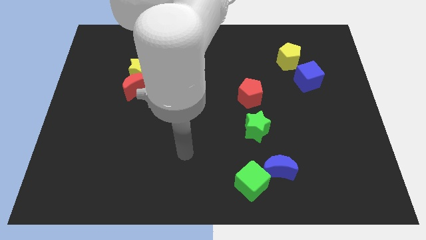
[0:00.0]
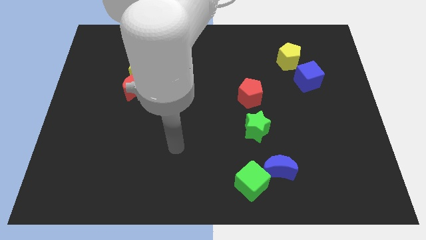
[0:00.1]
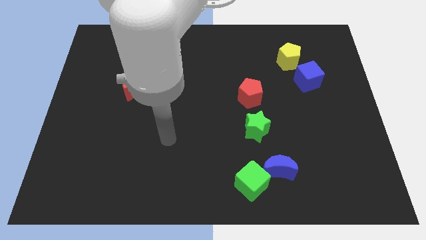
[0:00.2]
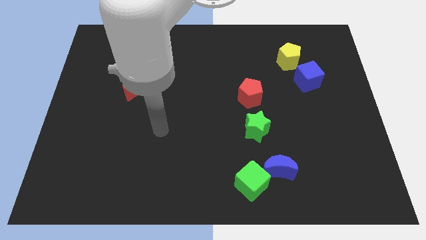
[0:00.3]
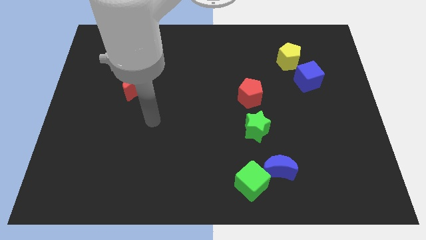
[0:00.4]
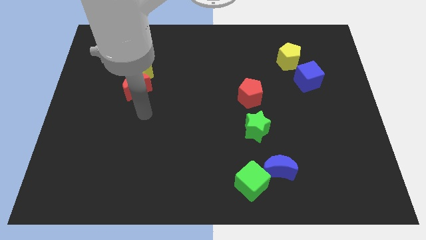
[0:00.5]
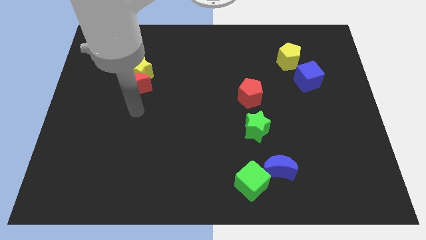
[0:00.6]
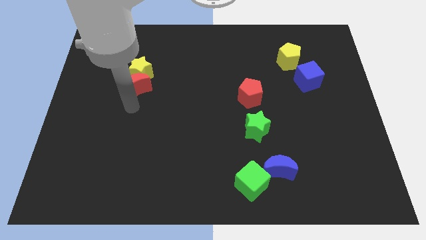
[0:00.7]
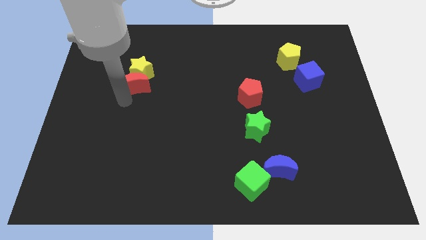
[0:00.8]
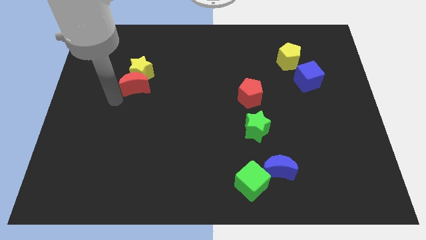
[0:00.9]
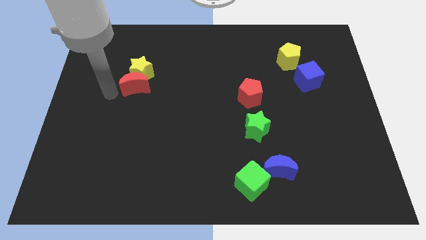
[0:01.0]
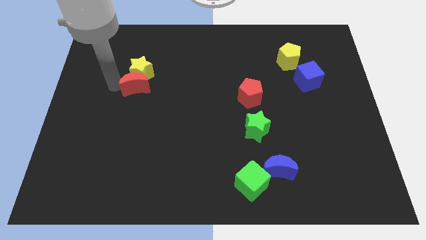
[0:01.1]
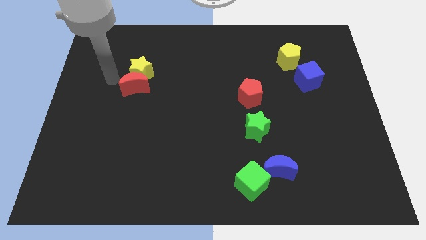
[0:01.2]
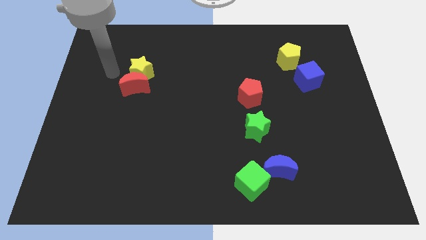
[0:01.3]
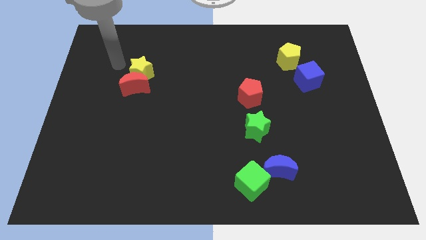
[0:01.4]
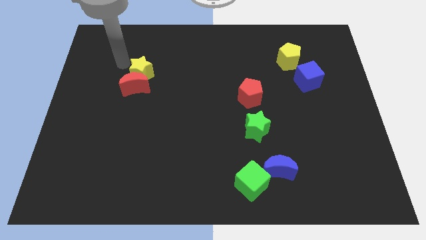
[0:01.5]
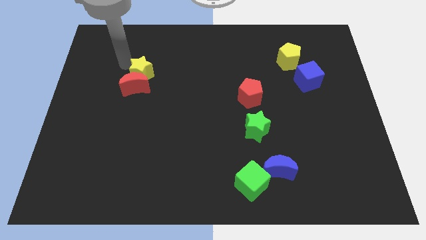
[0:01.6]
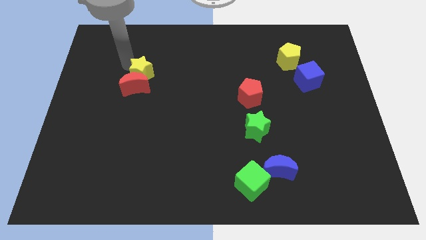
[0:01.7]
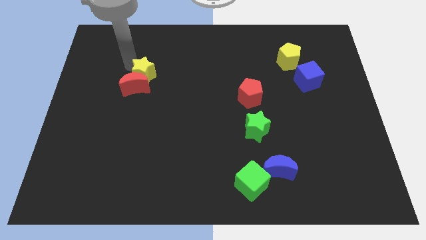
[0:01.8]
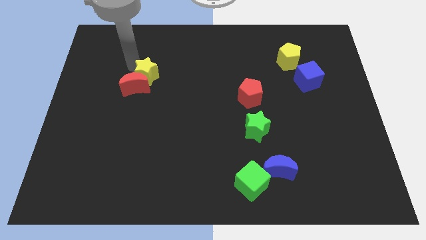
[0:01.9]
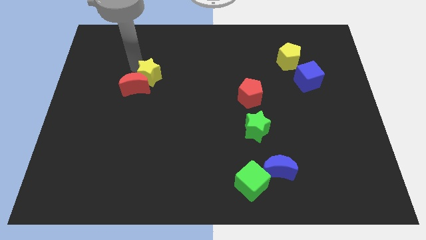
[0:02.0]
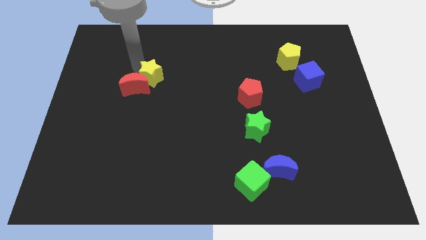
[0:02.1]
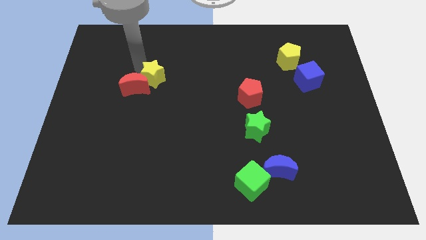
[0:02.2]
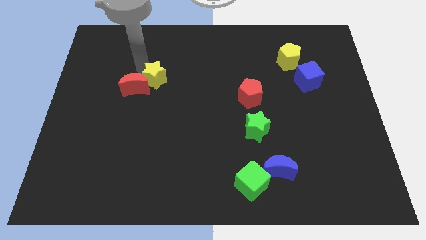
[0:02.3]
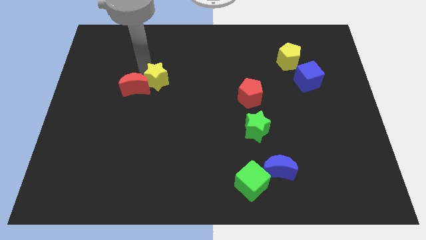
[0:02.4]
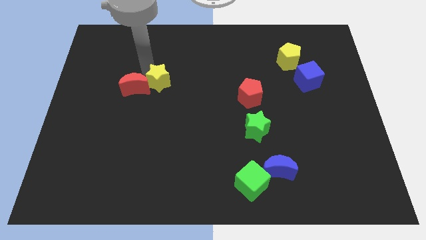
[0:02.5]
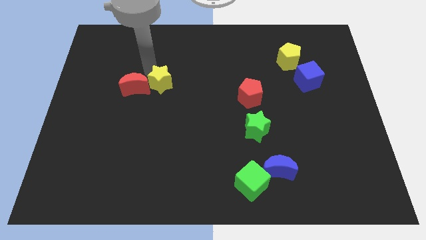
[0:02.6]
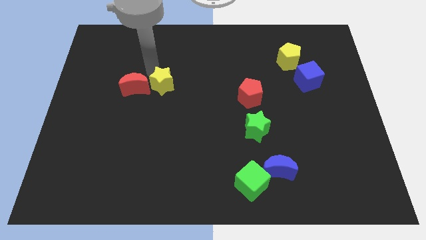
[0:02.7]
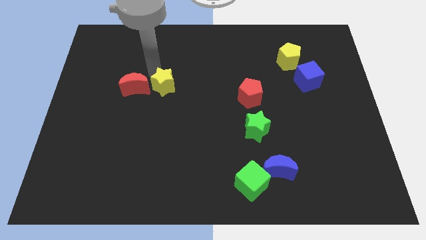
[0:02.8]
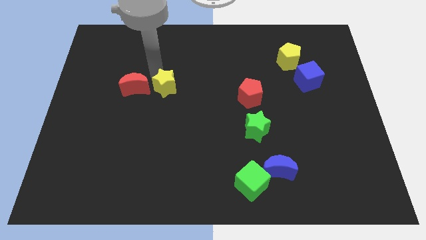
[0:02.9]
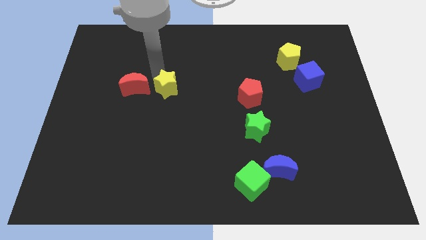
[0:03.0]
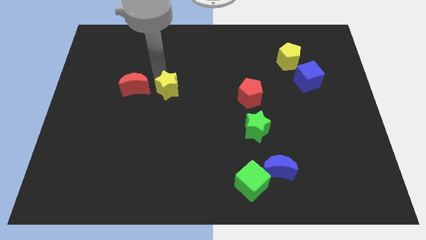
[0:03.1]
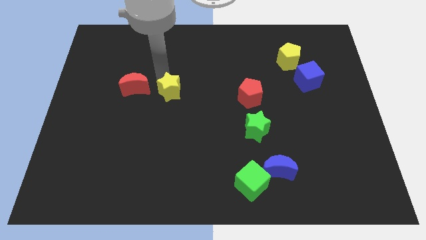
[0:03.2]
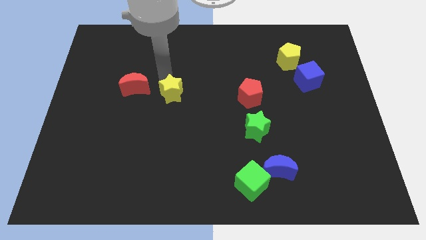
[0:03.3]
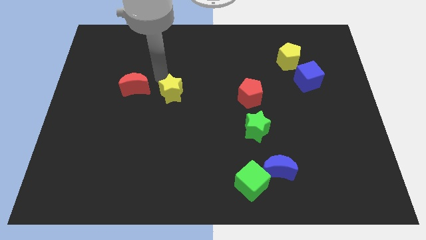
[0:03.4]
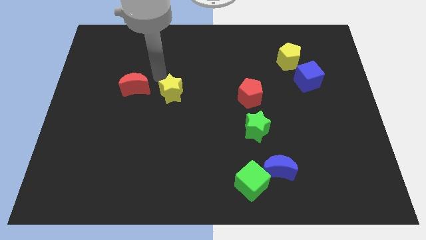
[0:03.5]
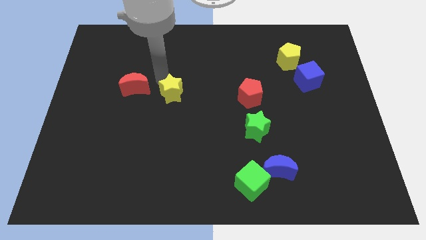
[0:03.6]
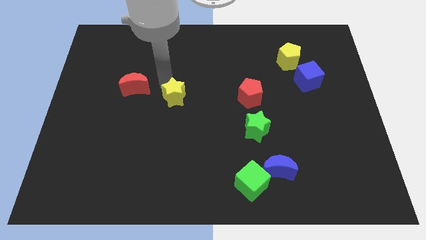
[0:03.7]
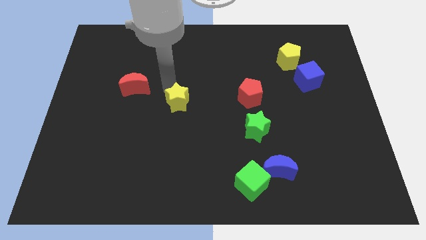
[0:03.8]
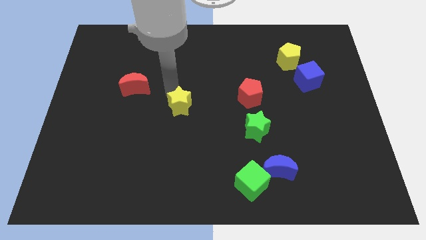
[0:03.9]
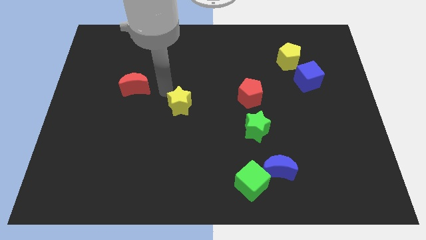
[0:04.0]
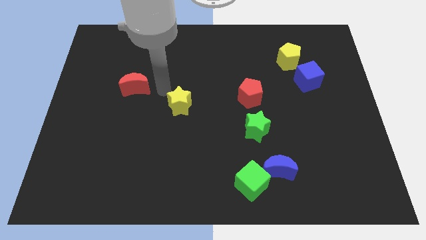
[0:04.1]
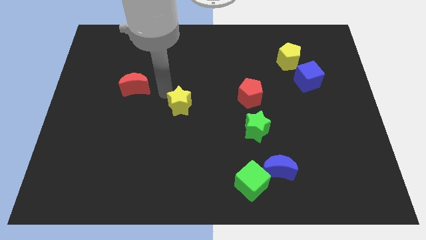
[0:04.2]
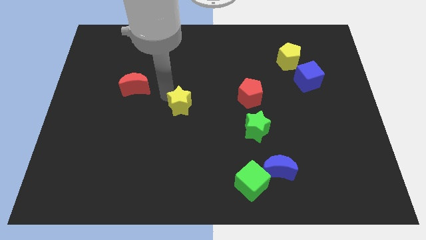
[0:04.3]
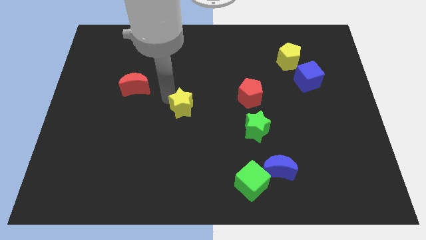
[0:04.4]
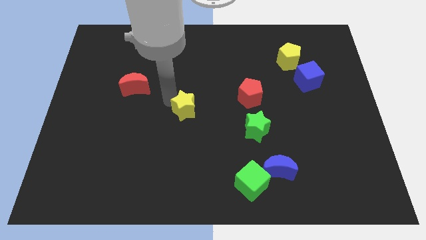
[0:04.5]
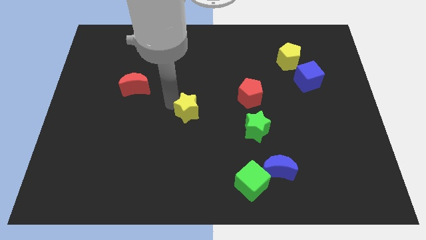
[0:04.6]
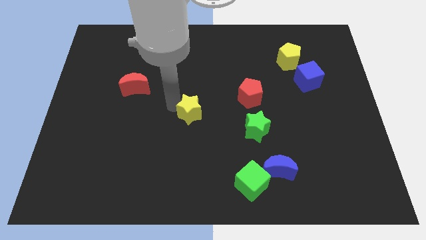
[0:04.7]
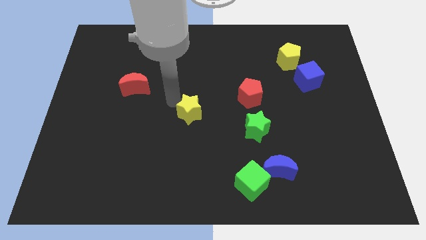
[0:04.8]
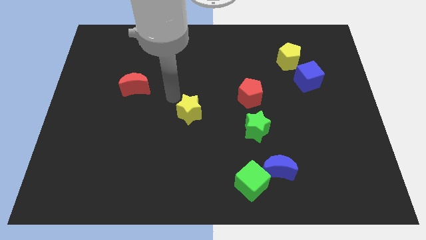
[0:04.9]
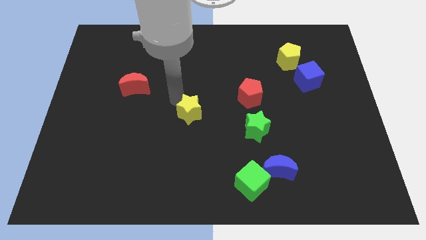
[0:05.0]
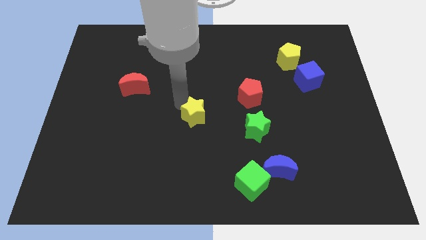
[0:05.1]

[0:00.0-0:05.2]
push the yellow star left of the green star

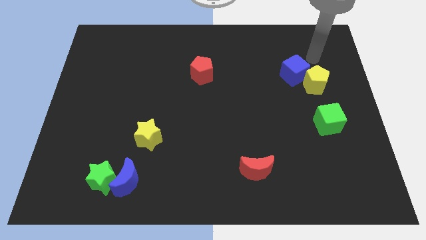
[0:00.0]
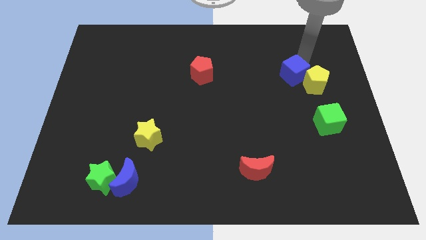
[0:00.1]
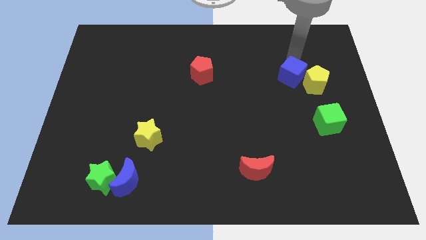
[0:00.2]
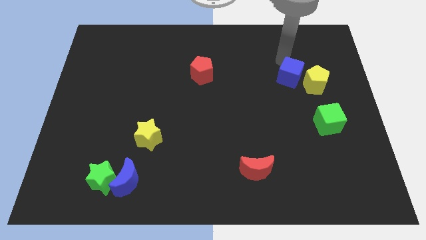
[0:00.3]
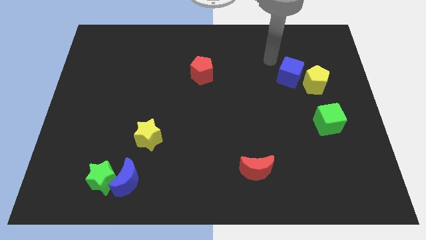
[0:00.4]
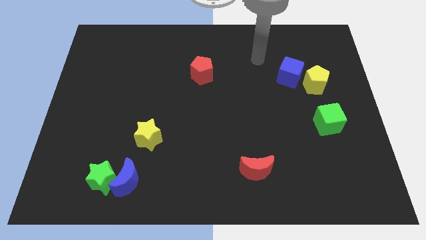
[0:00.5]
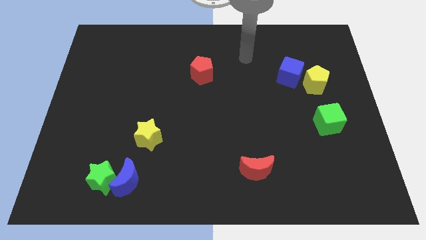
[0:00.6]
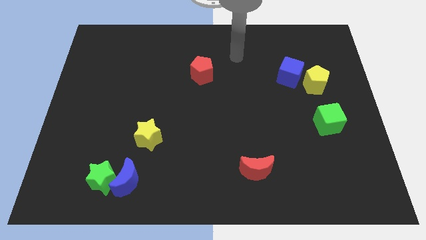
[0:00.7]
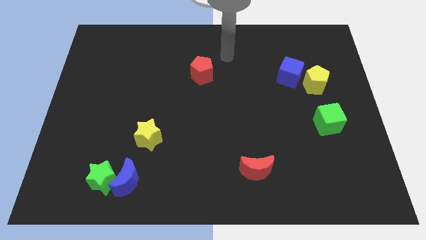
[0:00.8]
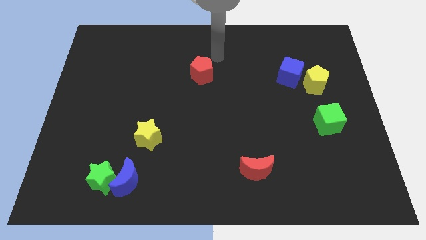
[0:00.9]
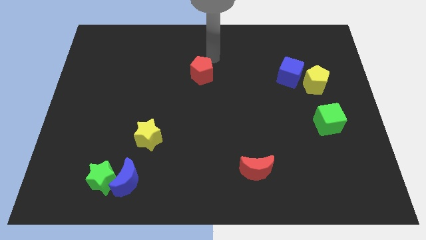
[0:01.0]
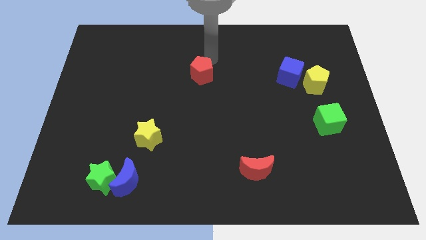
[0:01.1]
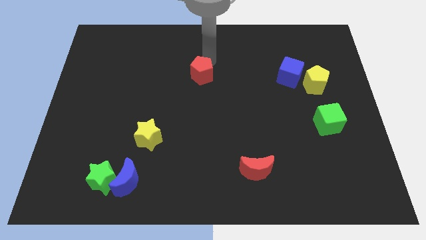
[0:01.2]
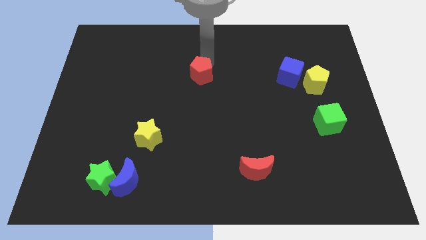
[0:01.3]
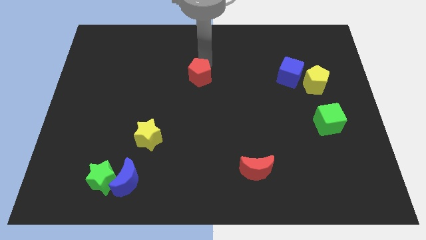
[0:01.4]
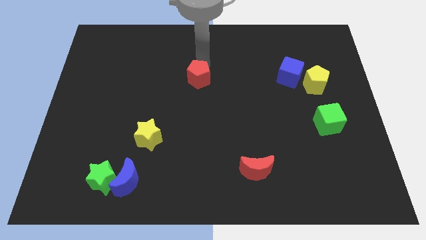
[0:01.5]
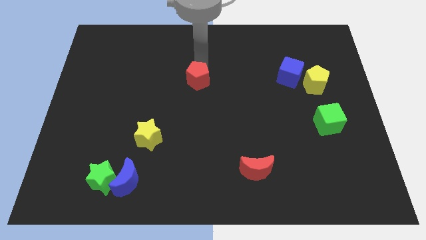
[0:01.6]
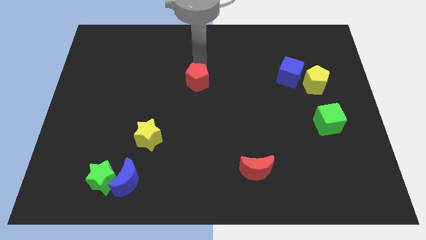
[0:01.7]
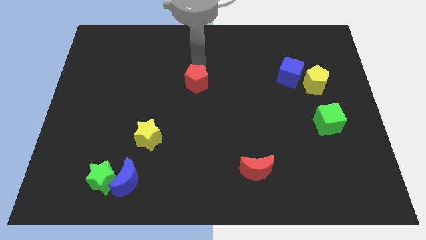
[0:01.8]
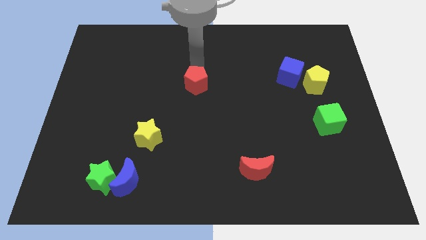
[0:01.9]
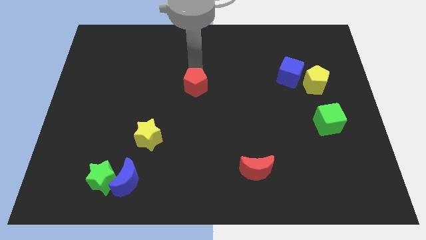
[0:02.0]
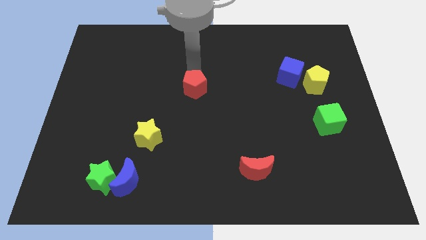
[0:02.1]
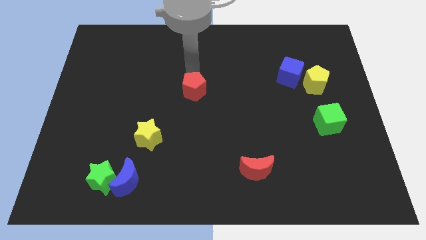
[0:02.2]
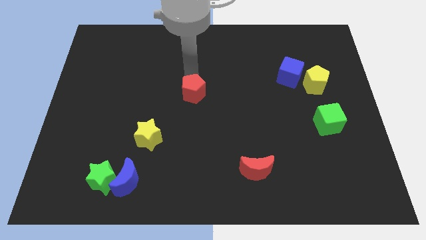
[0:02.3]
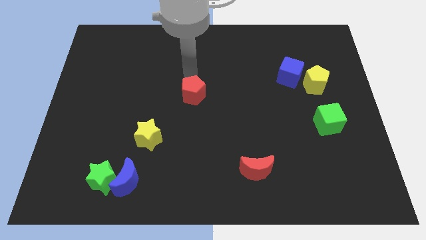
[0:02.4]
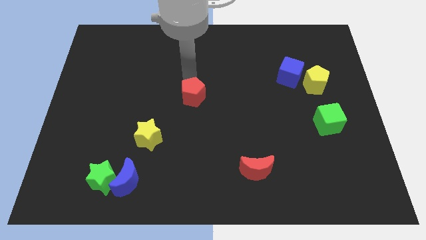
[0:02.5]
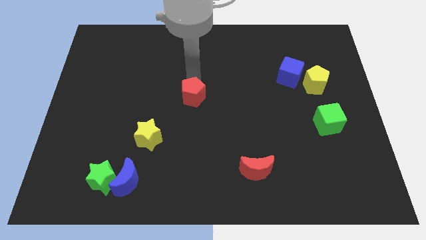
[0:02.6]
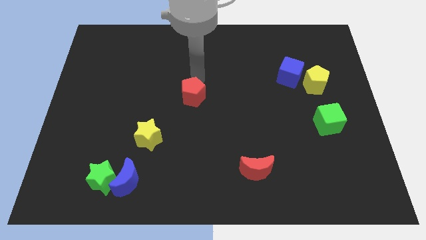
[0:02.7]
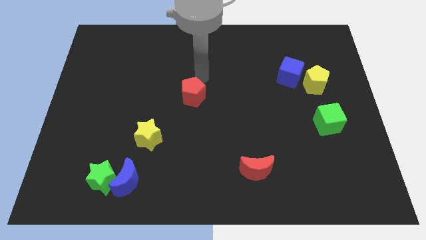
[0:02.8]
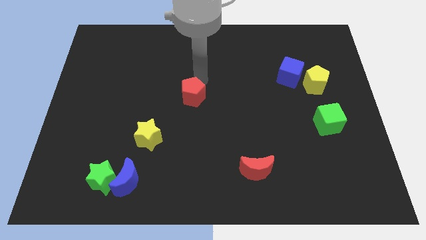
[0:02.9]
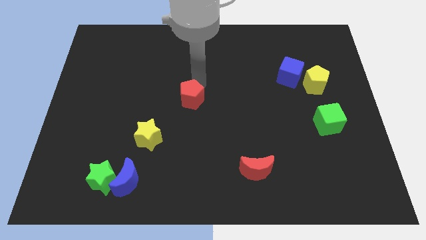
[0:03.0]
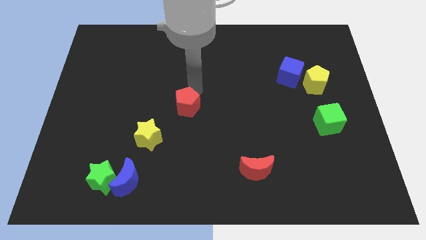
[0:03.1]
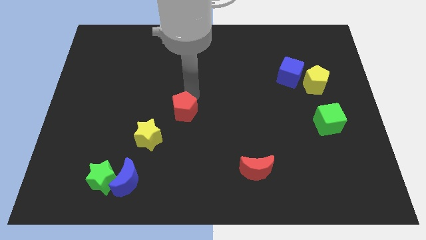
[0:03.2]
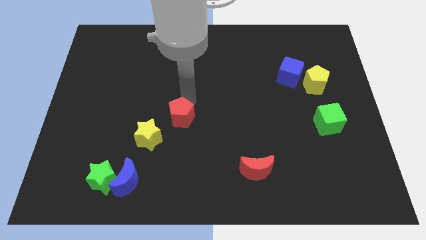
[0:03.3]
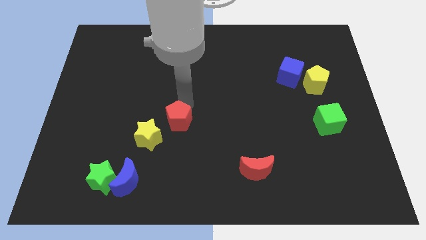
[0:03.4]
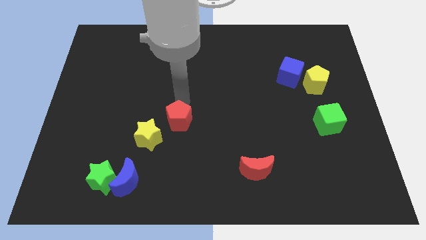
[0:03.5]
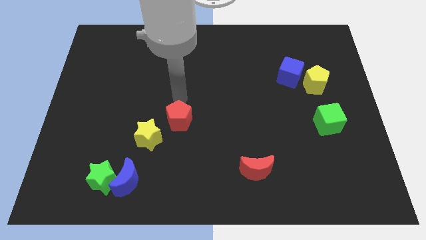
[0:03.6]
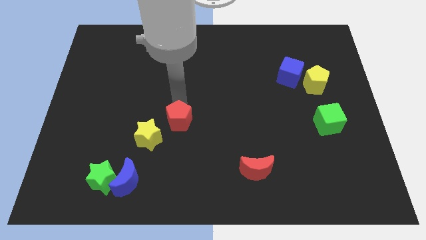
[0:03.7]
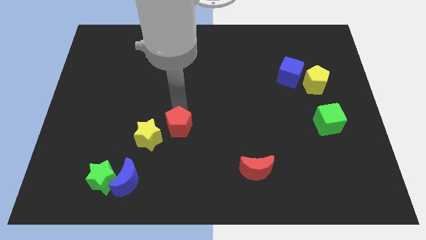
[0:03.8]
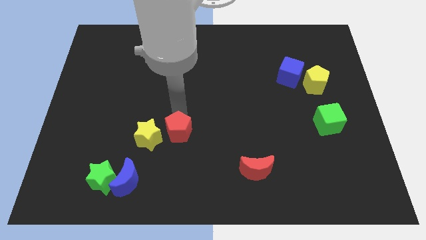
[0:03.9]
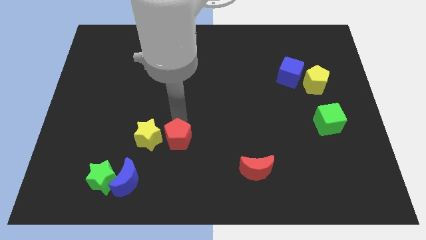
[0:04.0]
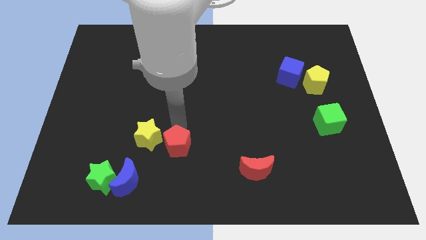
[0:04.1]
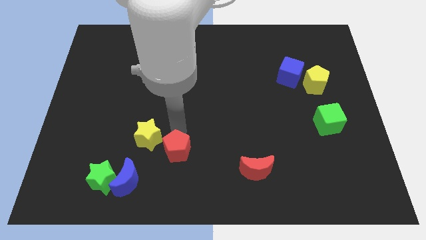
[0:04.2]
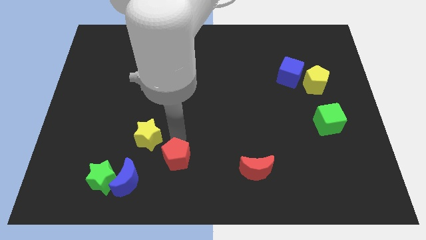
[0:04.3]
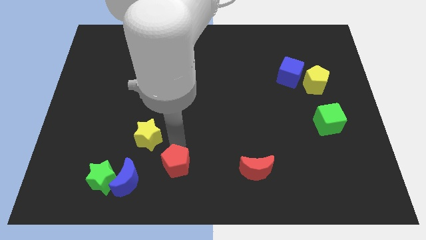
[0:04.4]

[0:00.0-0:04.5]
push the red pentagon to the right side of the blue moon
